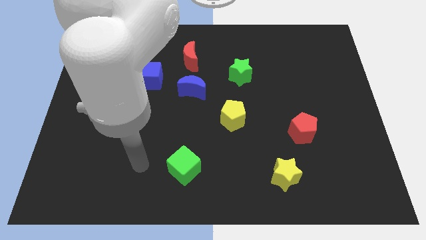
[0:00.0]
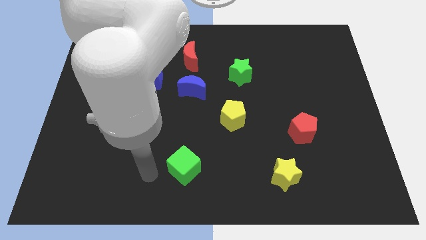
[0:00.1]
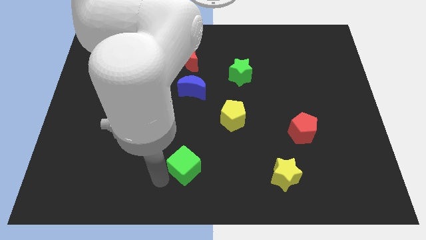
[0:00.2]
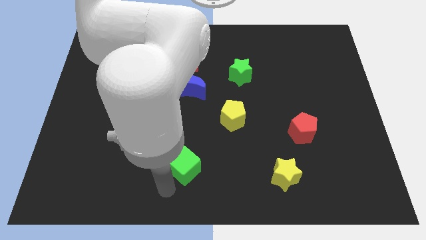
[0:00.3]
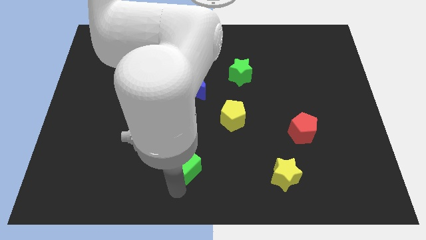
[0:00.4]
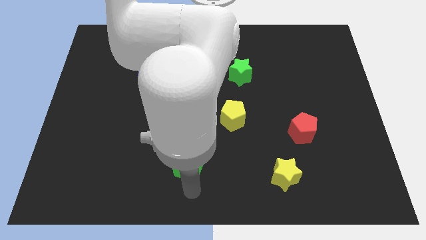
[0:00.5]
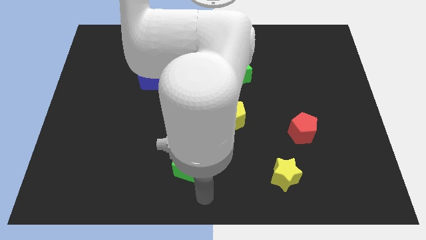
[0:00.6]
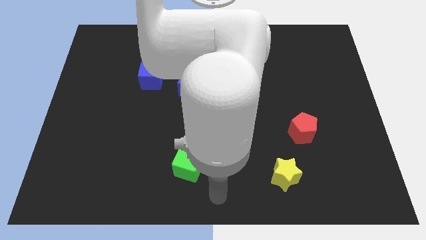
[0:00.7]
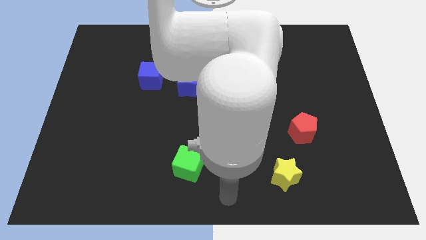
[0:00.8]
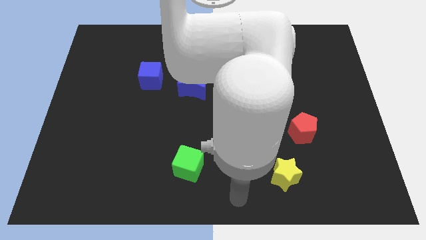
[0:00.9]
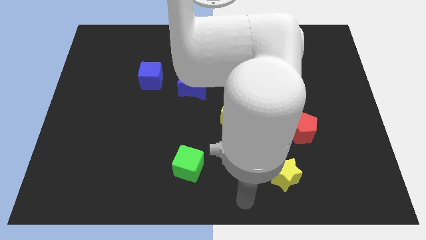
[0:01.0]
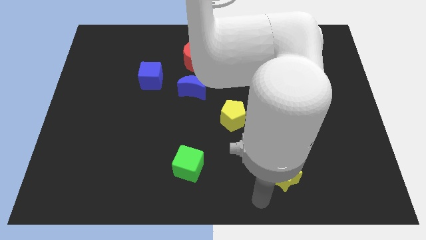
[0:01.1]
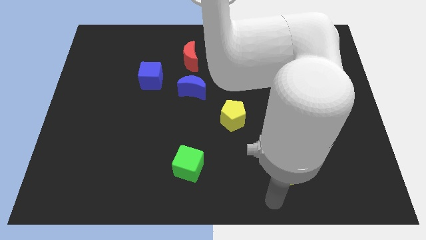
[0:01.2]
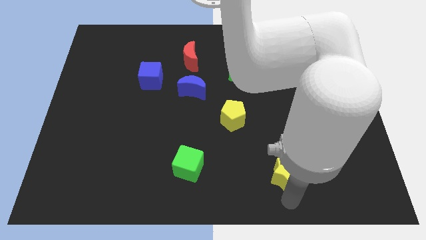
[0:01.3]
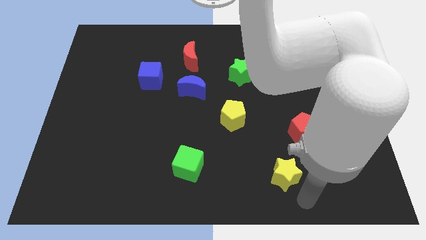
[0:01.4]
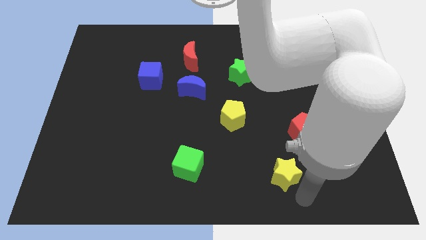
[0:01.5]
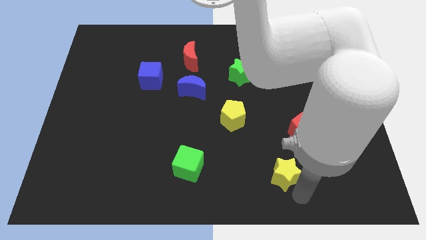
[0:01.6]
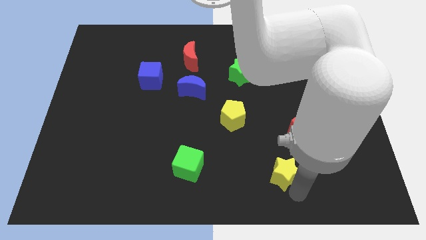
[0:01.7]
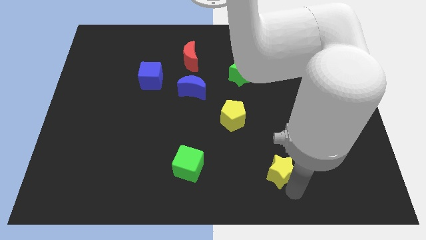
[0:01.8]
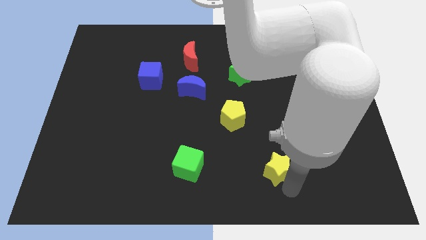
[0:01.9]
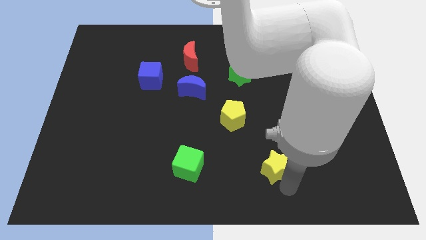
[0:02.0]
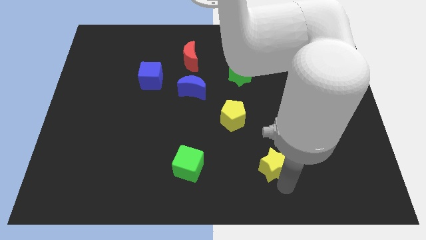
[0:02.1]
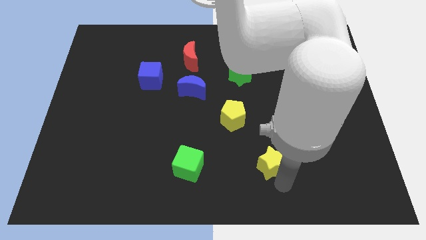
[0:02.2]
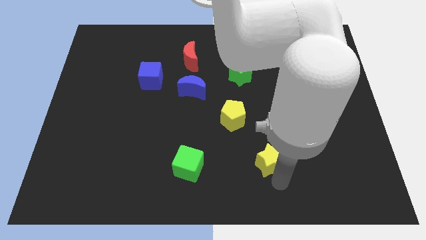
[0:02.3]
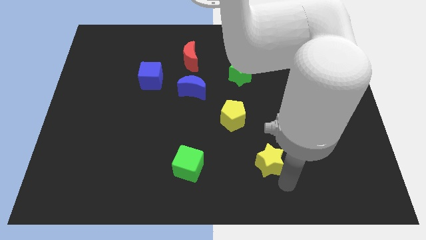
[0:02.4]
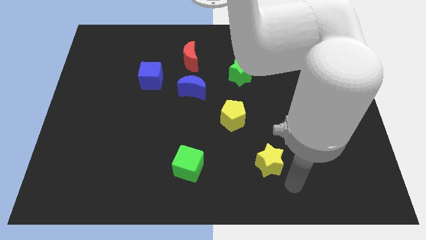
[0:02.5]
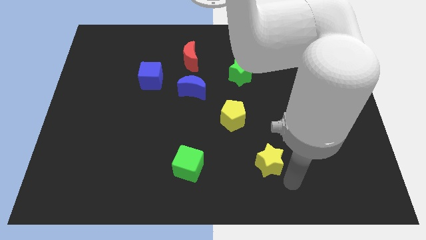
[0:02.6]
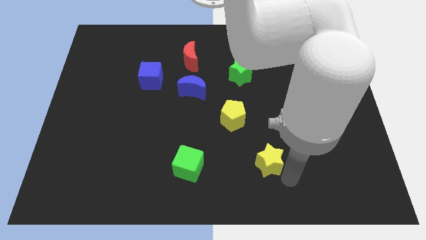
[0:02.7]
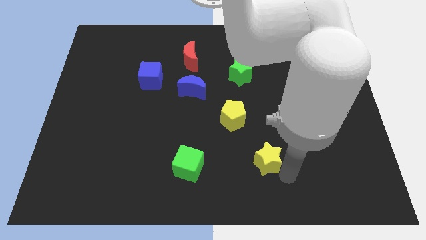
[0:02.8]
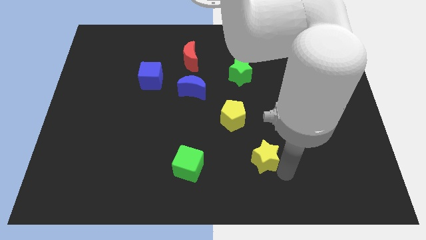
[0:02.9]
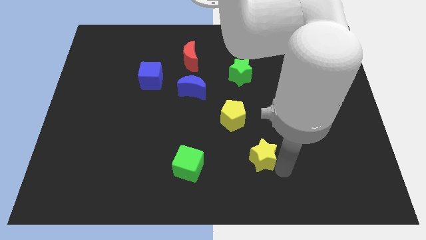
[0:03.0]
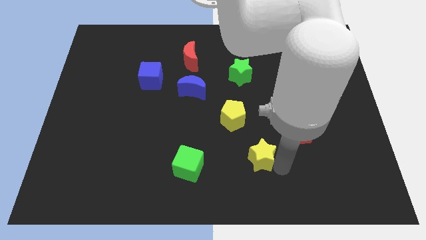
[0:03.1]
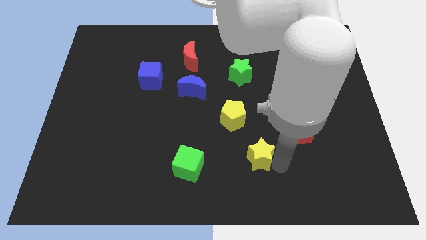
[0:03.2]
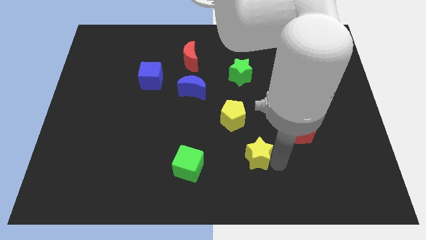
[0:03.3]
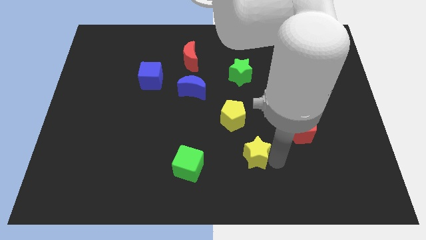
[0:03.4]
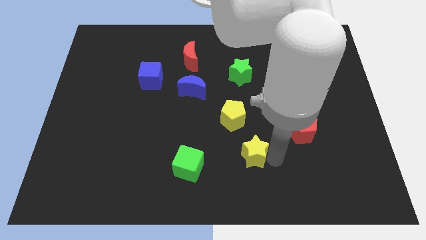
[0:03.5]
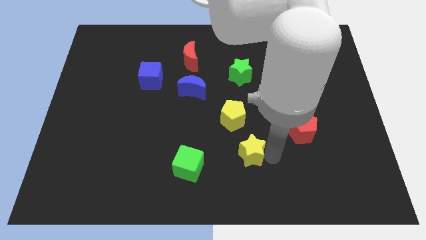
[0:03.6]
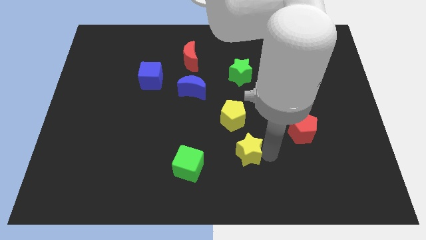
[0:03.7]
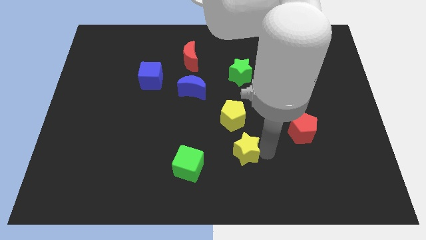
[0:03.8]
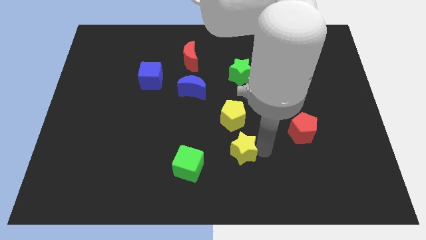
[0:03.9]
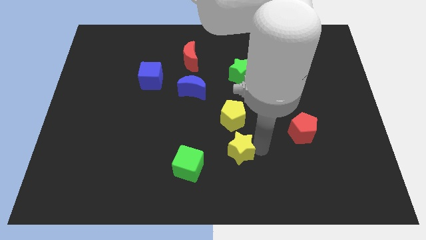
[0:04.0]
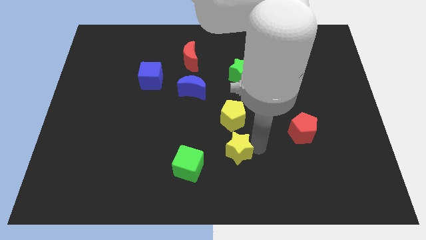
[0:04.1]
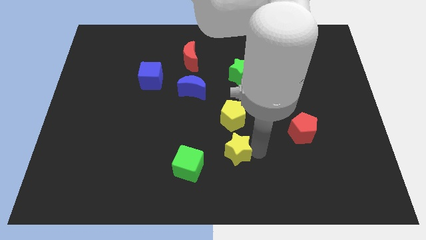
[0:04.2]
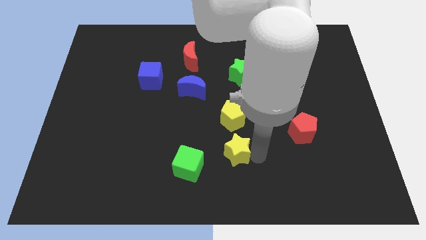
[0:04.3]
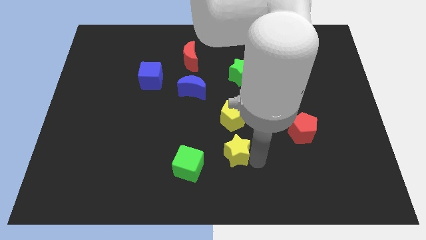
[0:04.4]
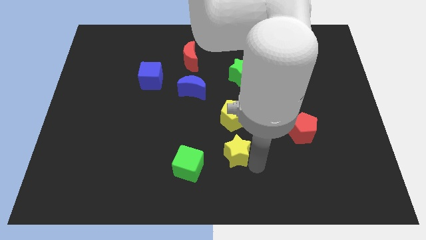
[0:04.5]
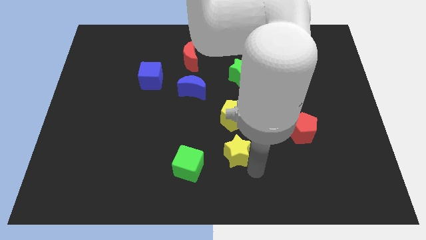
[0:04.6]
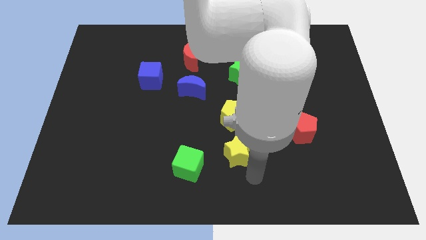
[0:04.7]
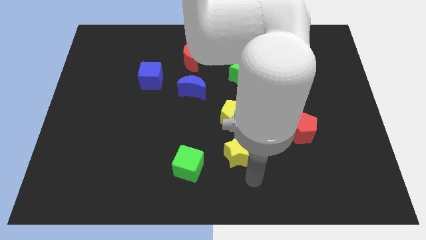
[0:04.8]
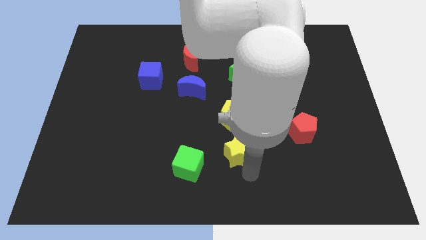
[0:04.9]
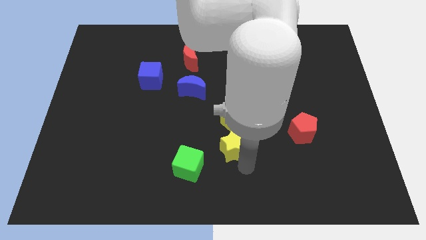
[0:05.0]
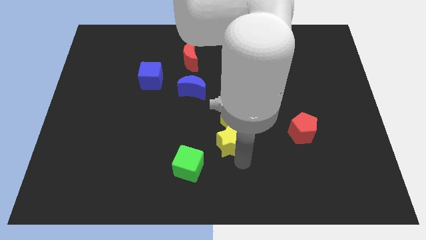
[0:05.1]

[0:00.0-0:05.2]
push the yellow star to the middle

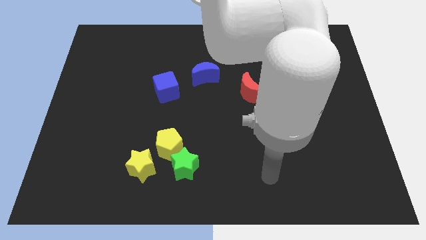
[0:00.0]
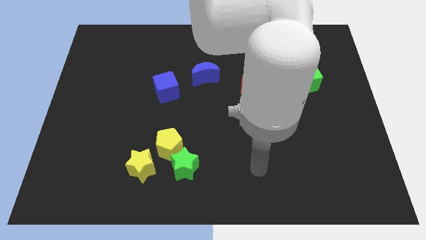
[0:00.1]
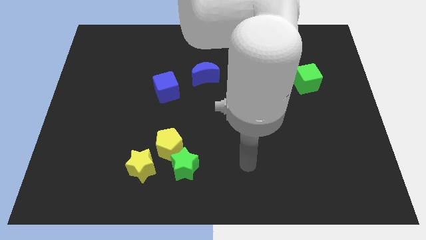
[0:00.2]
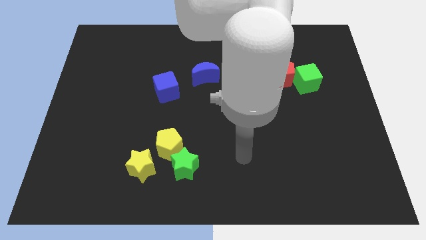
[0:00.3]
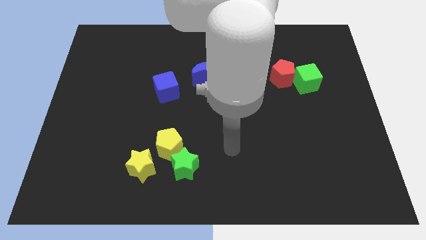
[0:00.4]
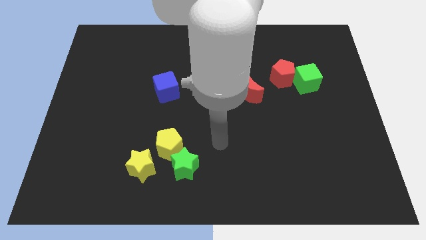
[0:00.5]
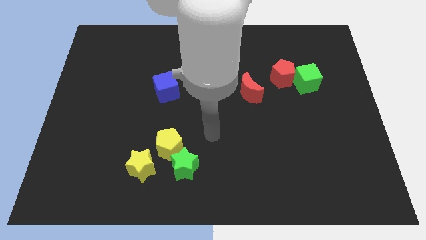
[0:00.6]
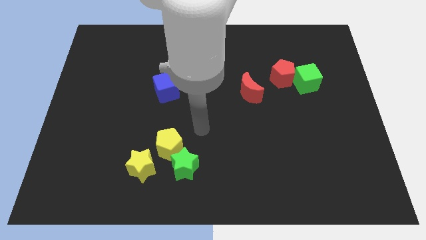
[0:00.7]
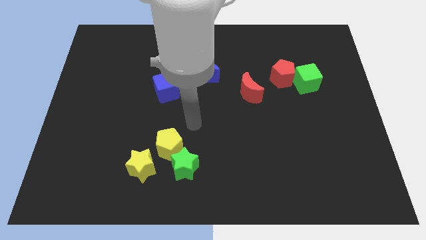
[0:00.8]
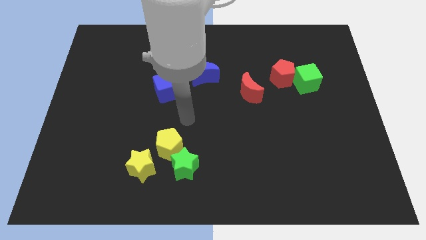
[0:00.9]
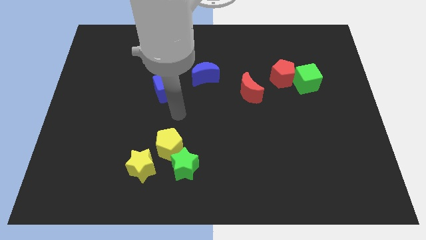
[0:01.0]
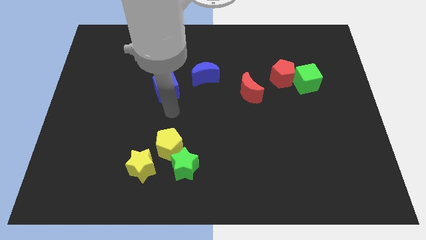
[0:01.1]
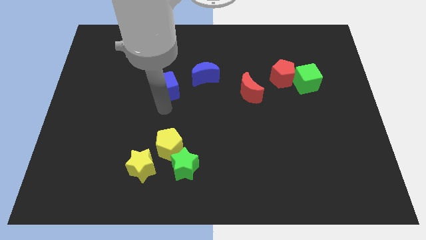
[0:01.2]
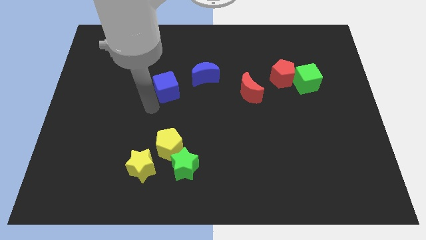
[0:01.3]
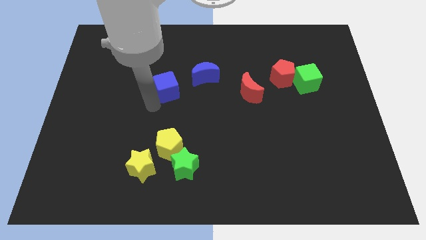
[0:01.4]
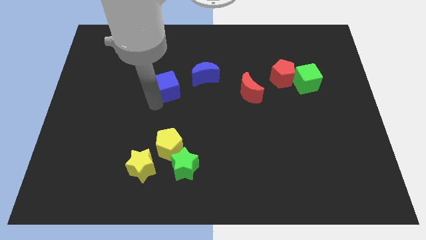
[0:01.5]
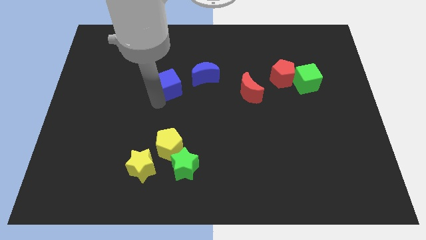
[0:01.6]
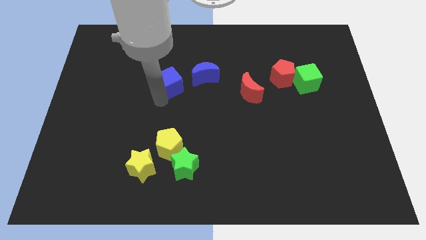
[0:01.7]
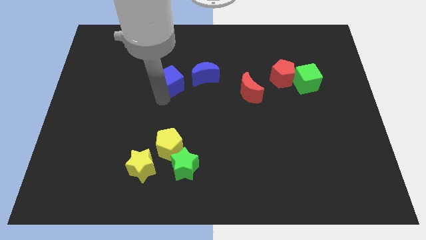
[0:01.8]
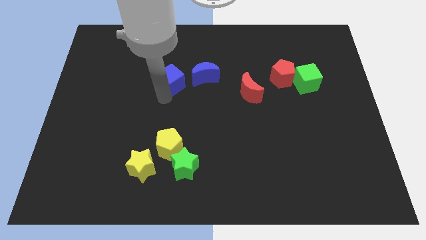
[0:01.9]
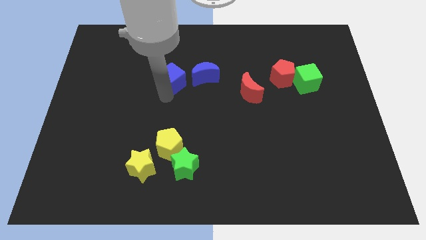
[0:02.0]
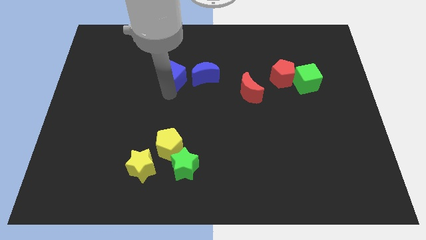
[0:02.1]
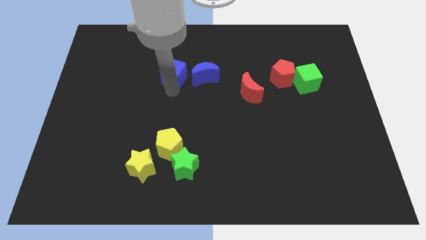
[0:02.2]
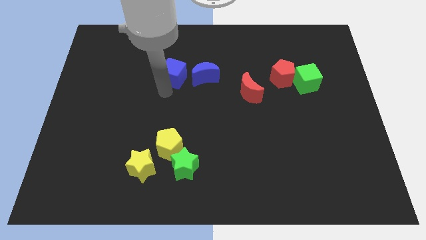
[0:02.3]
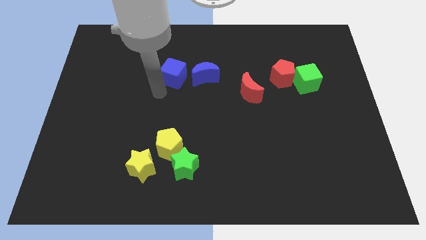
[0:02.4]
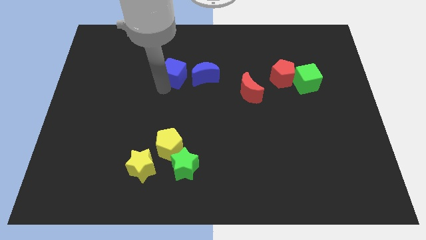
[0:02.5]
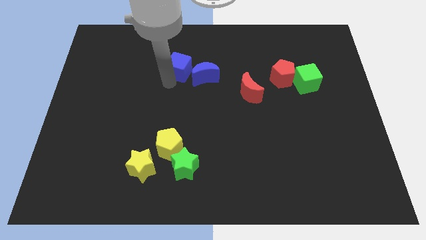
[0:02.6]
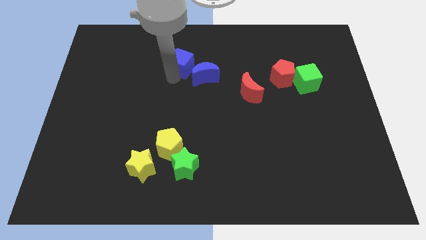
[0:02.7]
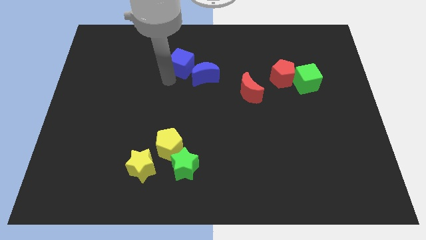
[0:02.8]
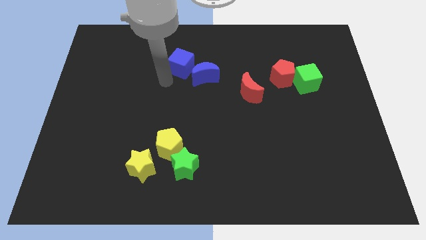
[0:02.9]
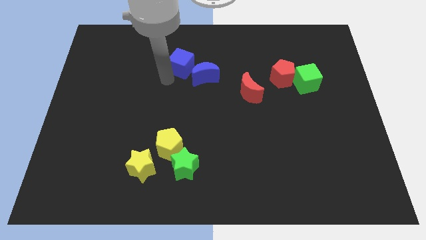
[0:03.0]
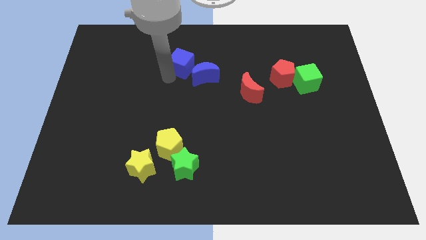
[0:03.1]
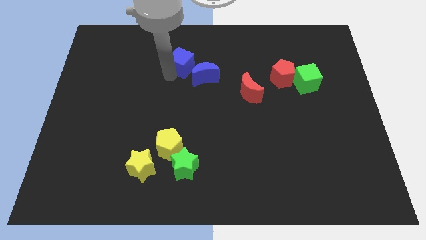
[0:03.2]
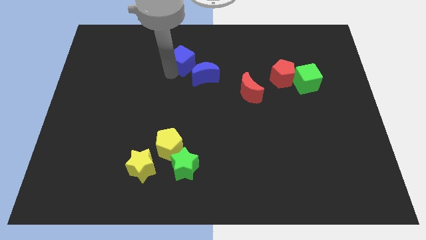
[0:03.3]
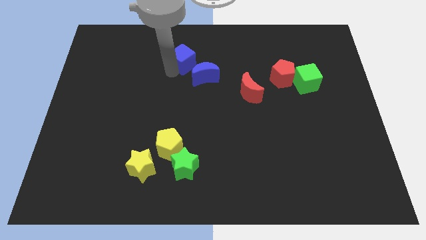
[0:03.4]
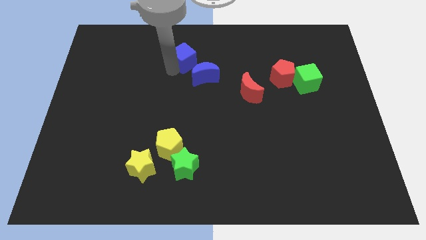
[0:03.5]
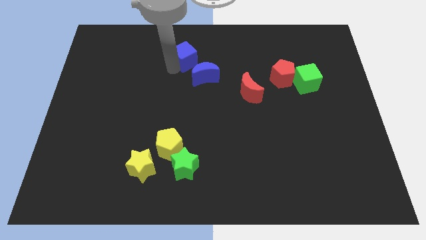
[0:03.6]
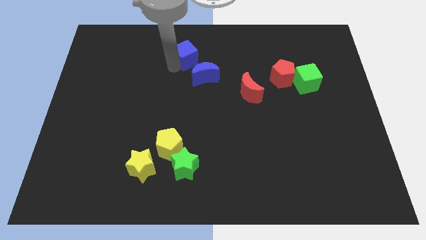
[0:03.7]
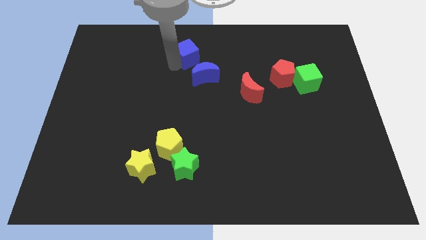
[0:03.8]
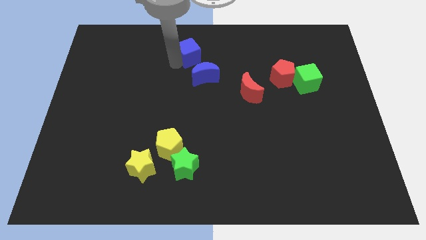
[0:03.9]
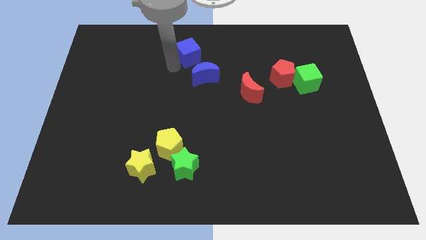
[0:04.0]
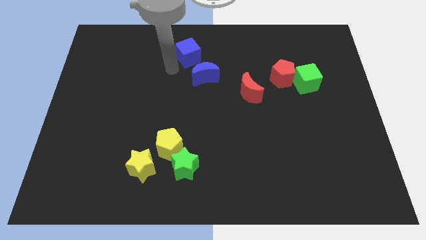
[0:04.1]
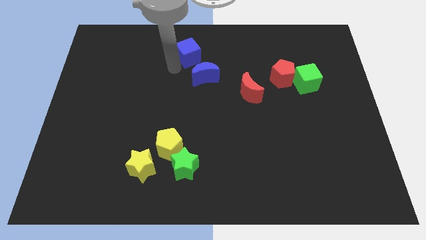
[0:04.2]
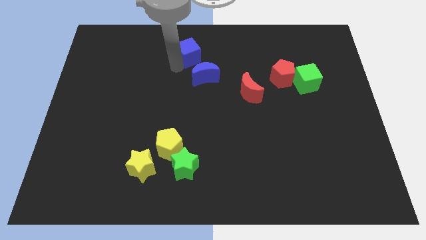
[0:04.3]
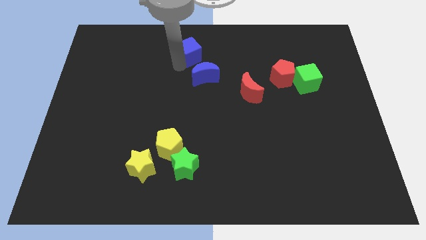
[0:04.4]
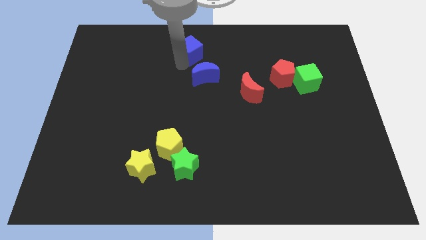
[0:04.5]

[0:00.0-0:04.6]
put the blue cube to the top side
